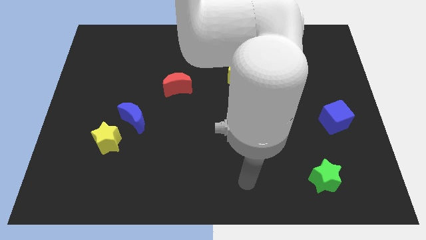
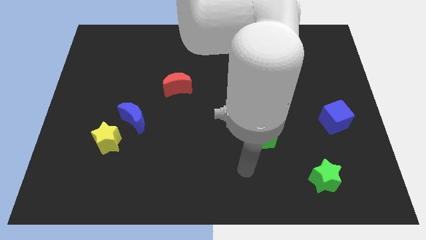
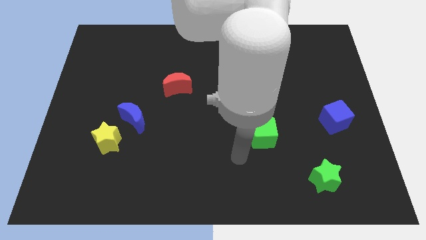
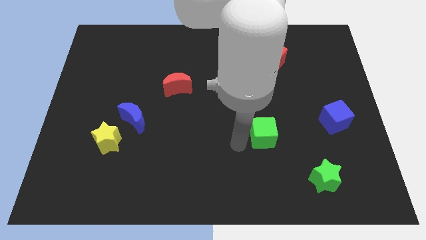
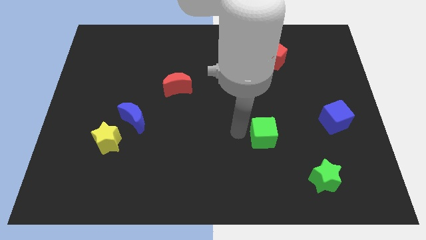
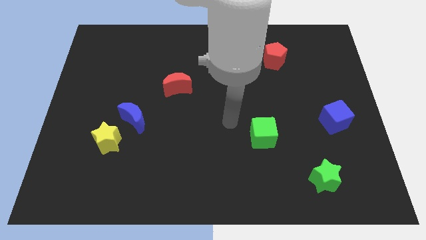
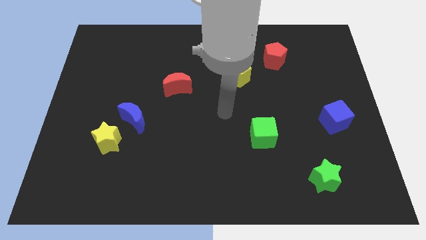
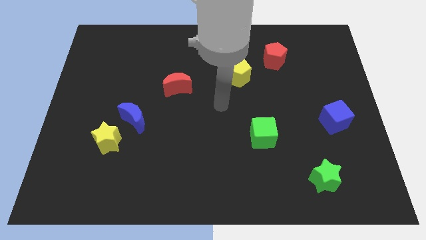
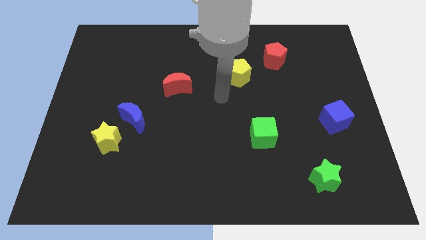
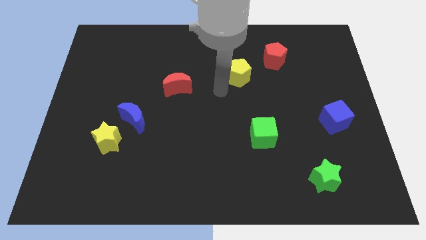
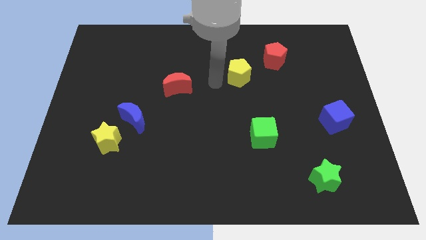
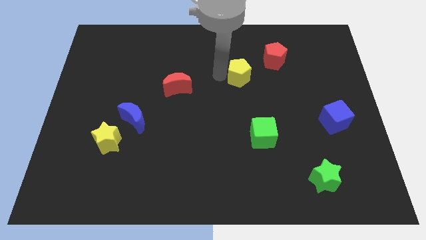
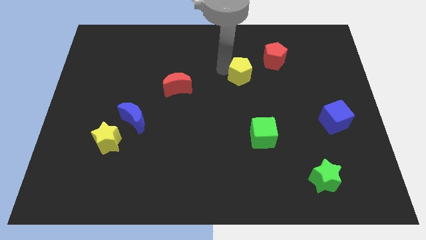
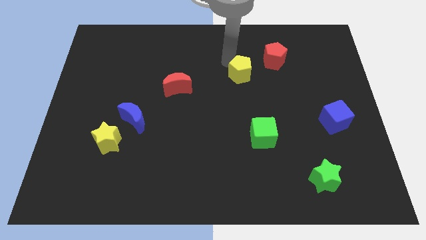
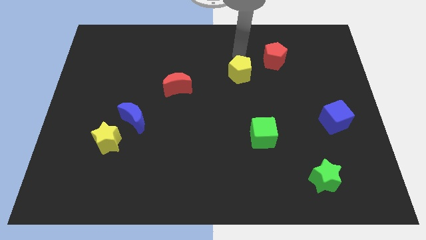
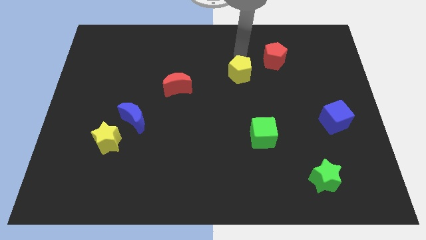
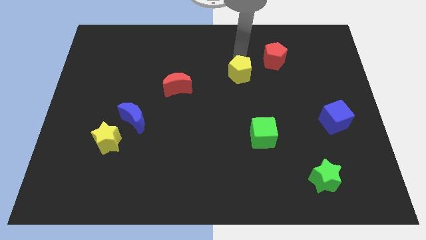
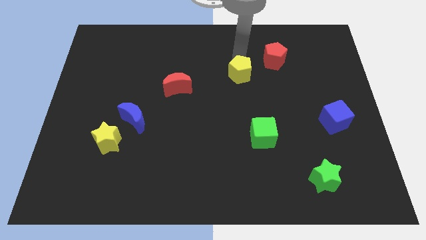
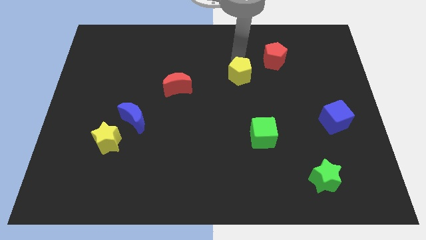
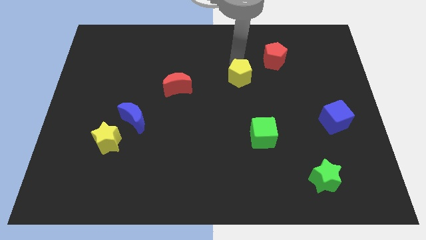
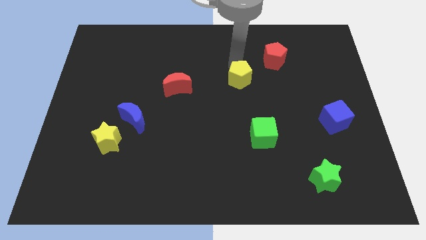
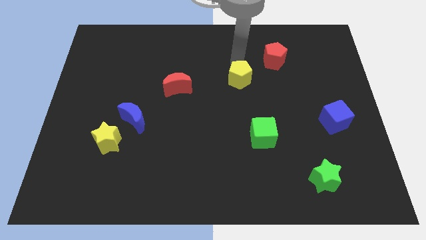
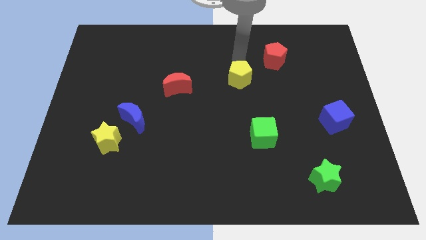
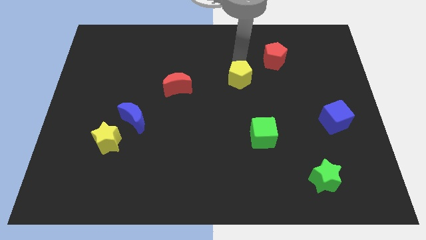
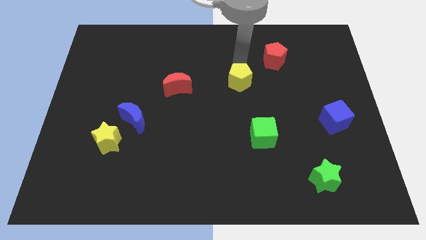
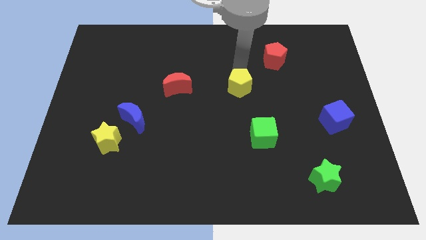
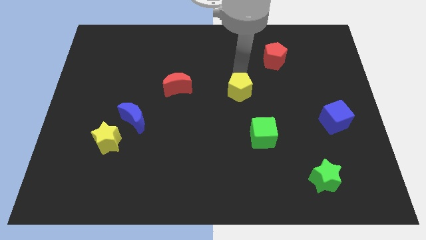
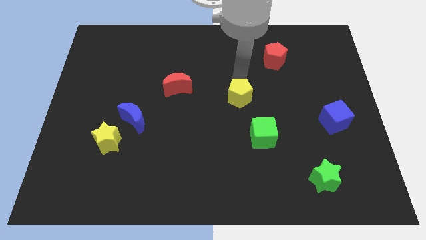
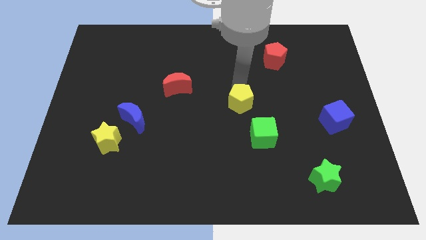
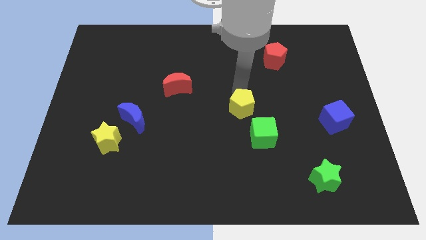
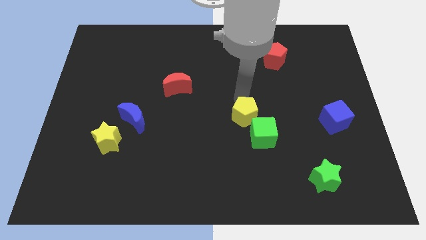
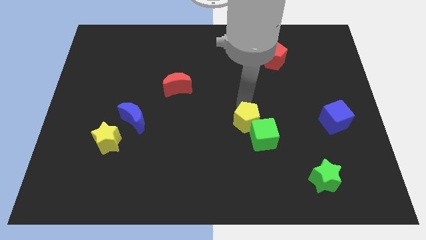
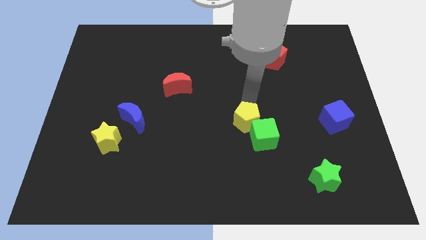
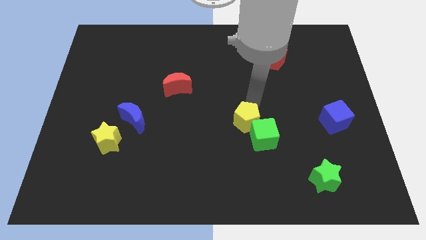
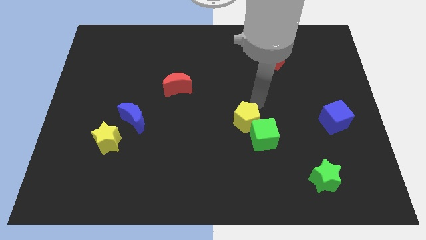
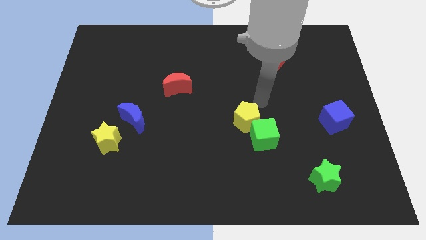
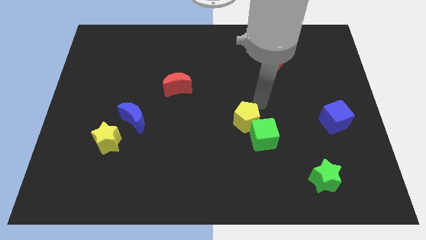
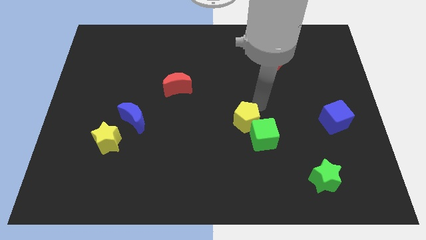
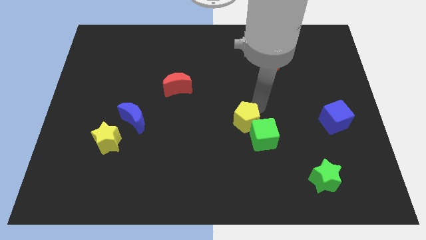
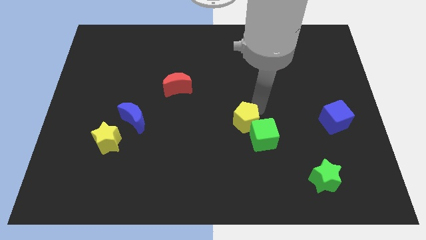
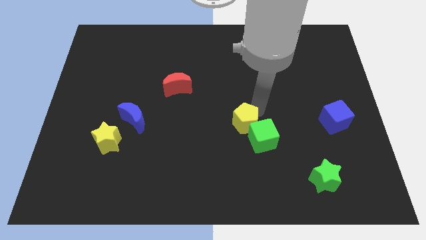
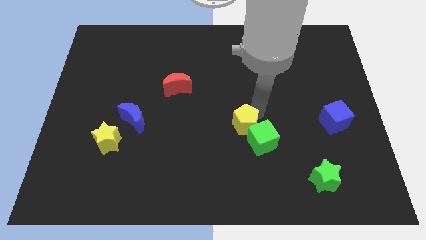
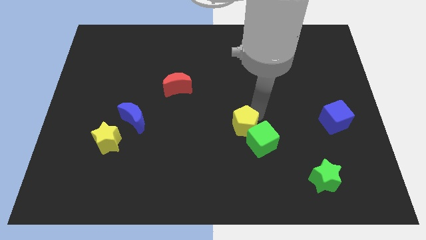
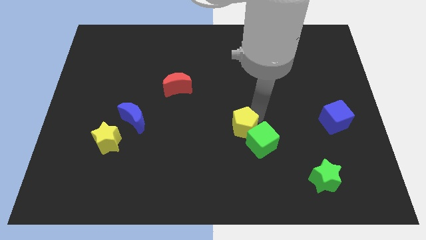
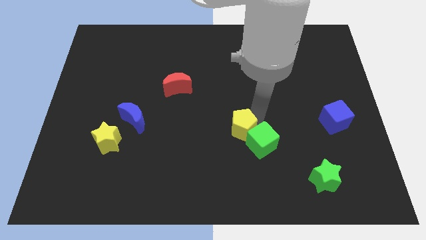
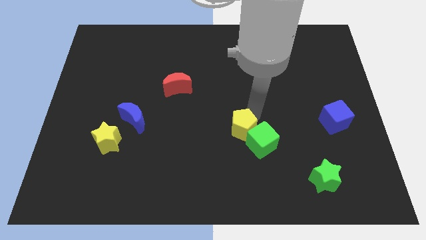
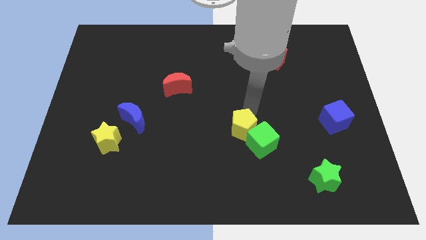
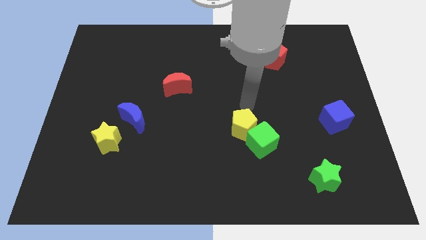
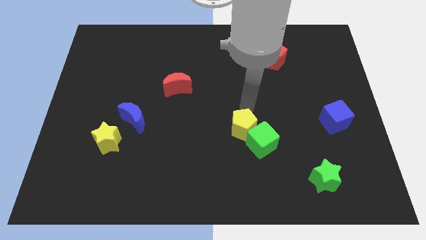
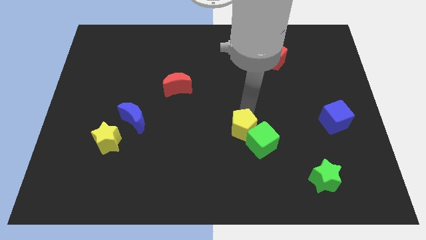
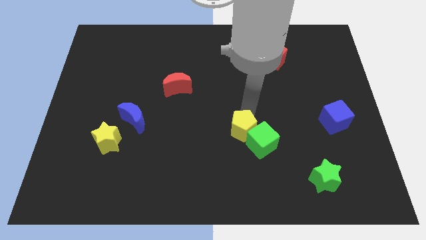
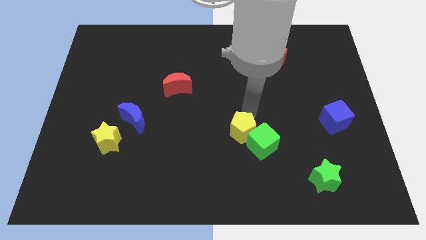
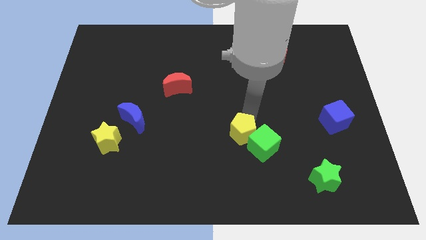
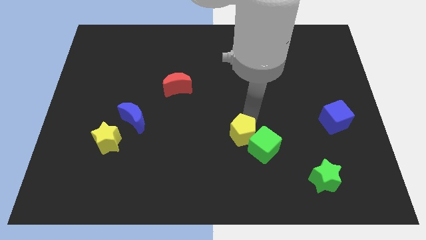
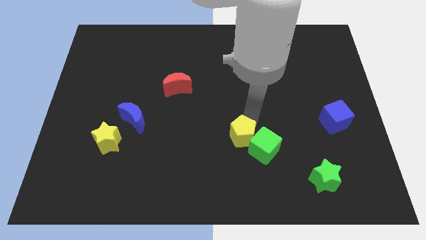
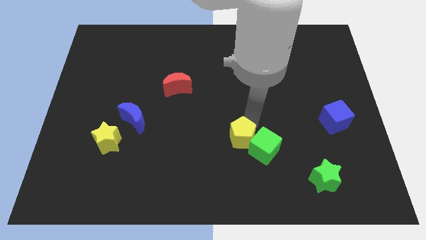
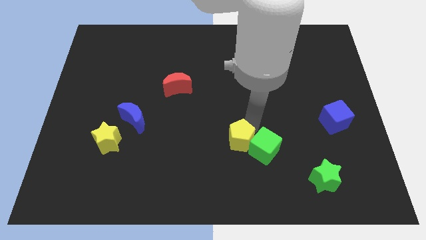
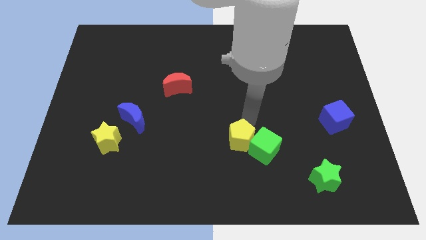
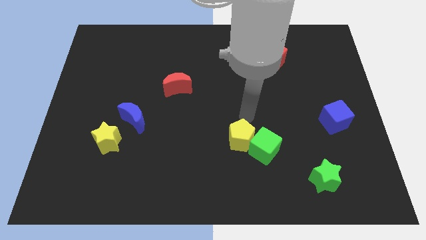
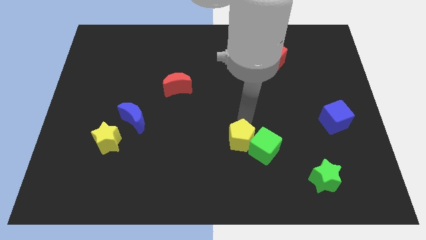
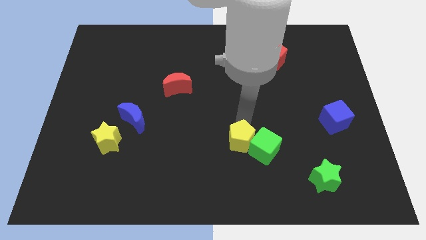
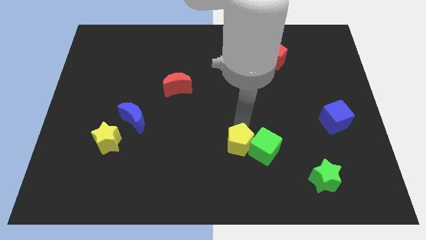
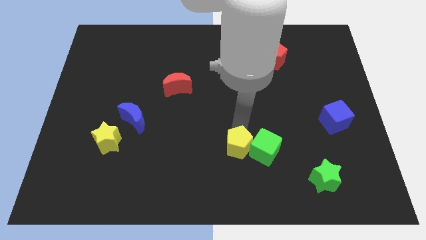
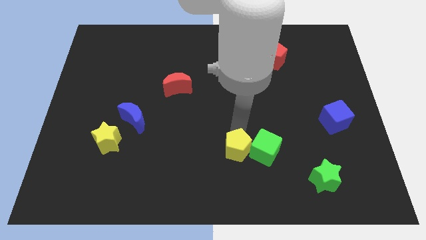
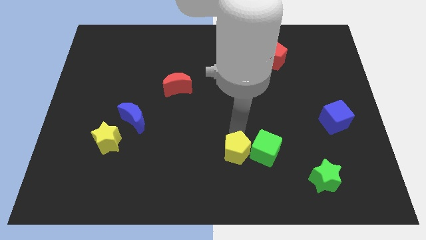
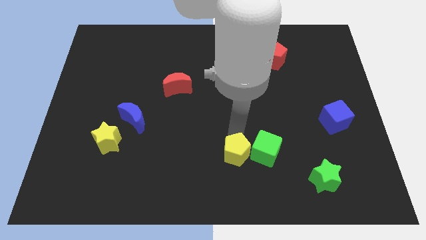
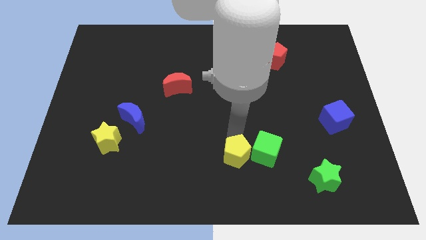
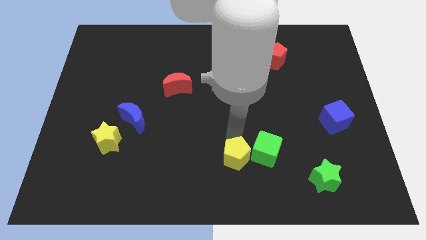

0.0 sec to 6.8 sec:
move the yellow pentagon to the bottom
